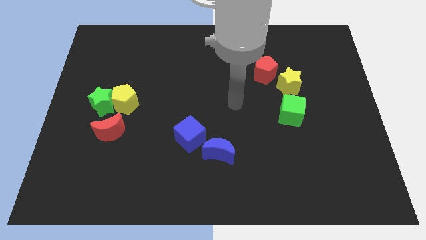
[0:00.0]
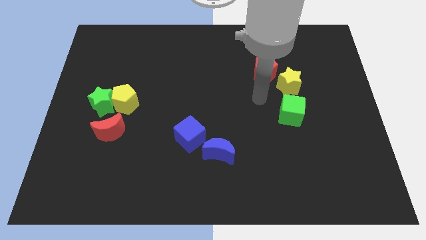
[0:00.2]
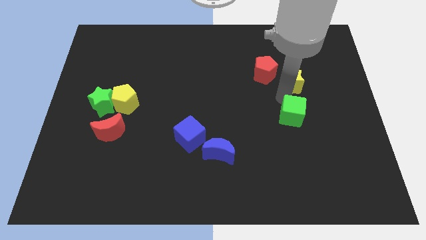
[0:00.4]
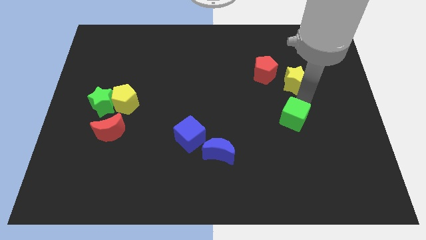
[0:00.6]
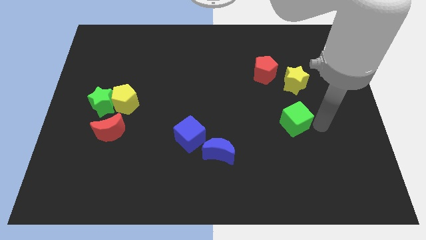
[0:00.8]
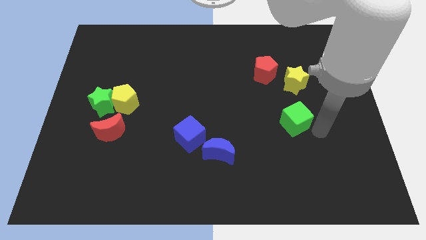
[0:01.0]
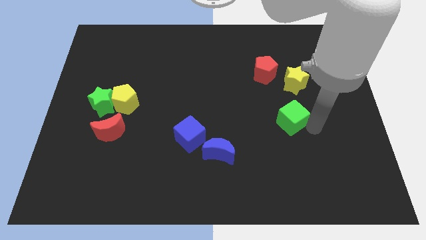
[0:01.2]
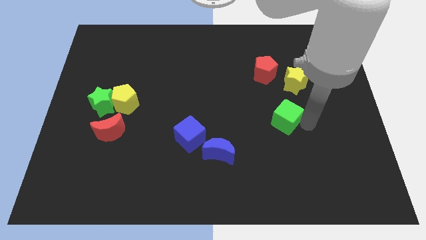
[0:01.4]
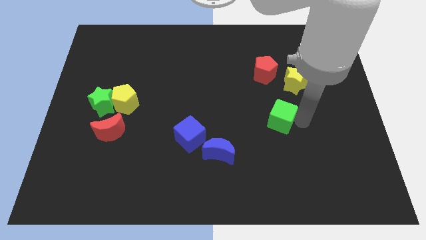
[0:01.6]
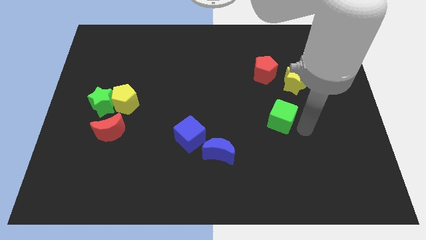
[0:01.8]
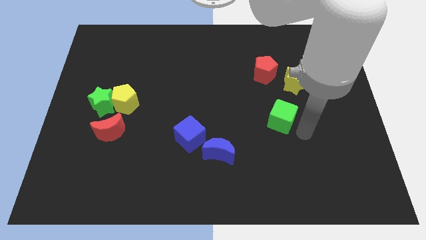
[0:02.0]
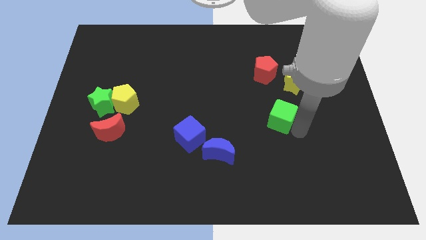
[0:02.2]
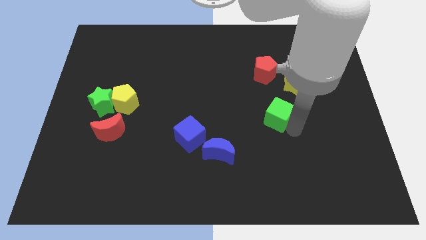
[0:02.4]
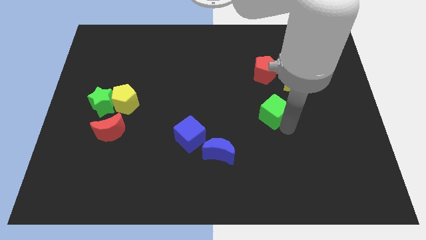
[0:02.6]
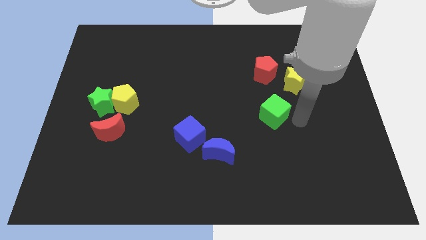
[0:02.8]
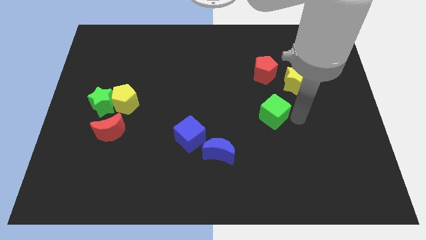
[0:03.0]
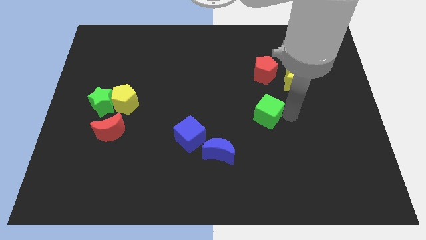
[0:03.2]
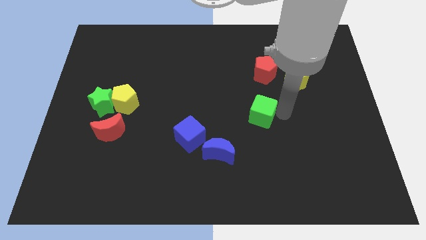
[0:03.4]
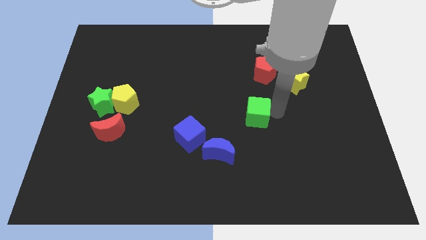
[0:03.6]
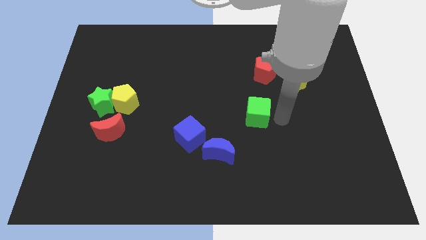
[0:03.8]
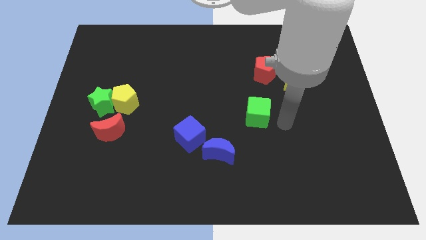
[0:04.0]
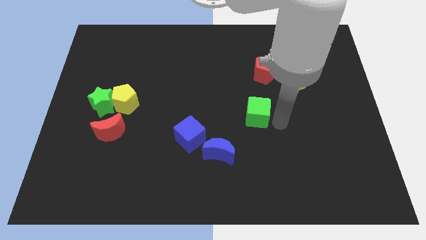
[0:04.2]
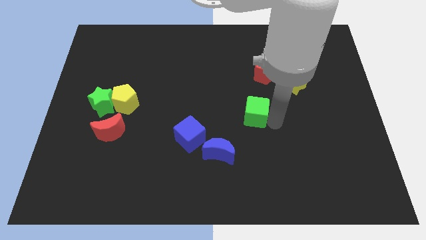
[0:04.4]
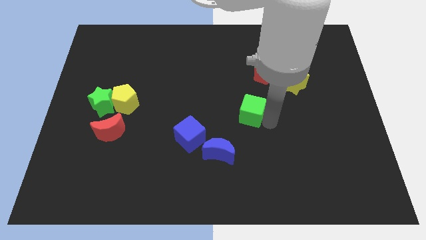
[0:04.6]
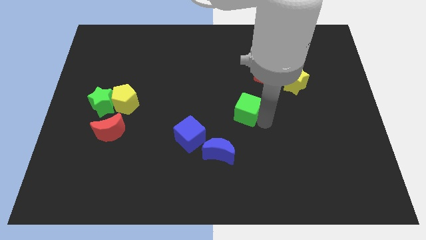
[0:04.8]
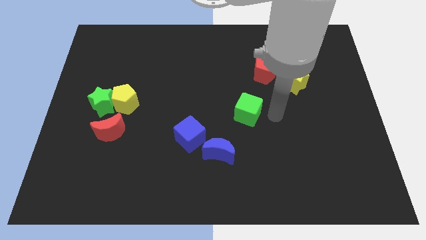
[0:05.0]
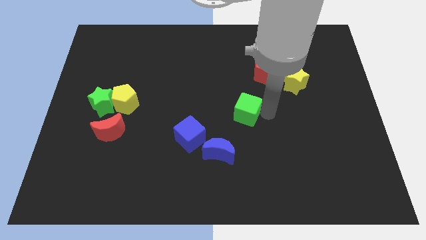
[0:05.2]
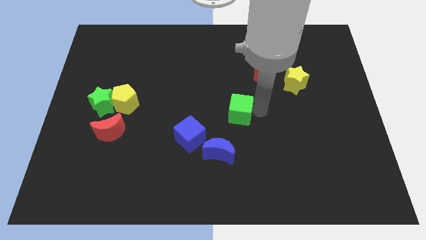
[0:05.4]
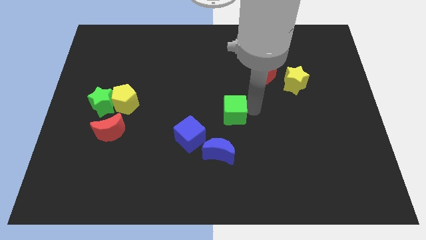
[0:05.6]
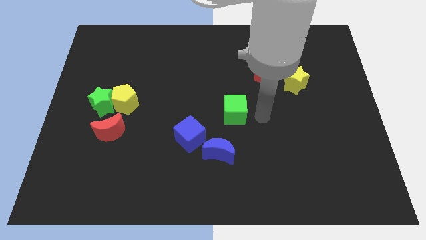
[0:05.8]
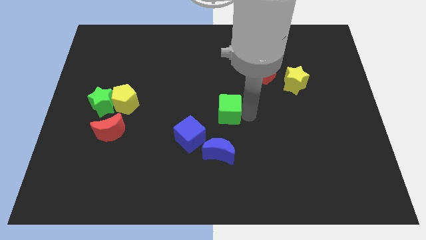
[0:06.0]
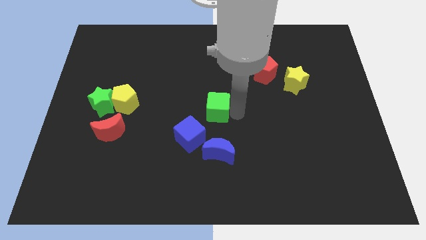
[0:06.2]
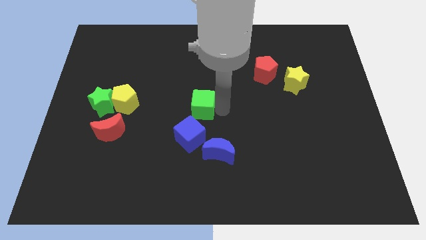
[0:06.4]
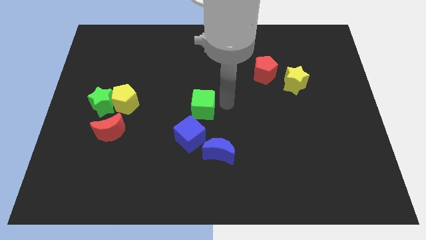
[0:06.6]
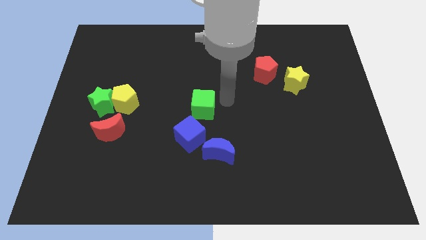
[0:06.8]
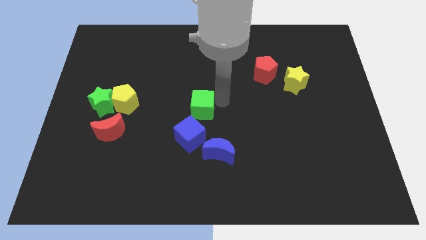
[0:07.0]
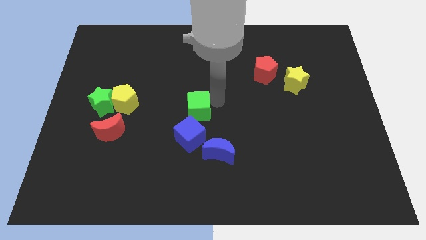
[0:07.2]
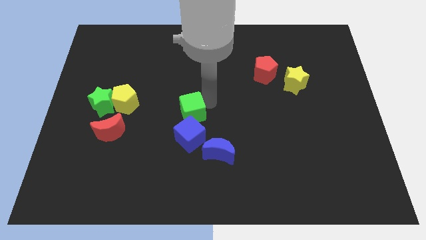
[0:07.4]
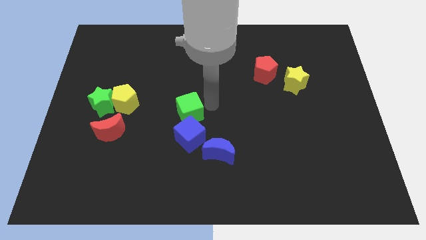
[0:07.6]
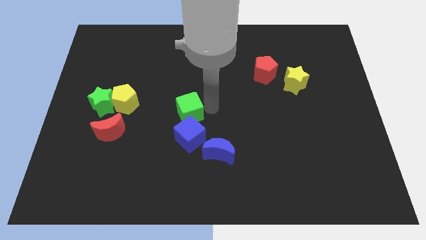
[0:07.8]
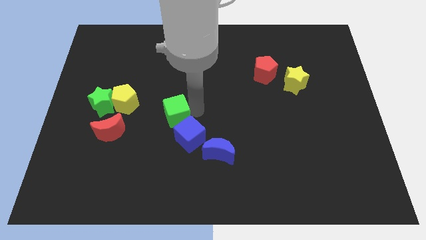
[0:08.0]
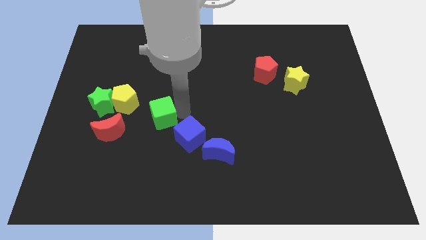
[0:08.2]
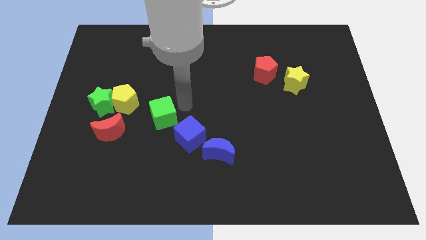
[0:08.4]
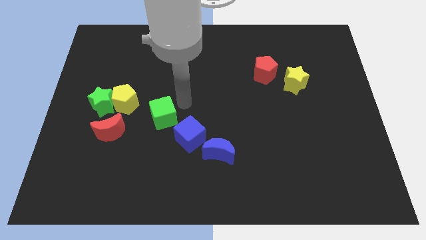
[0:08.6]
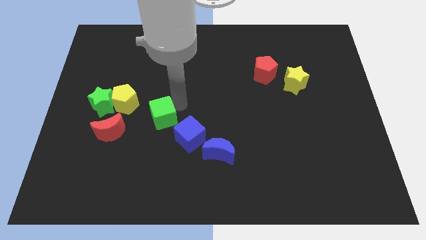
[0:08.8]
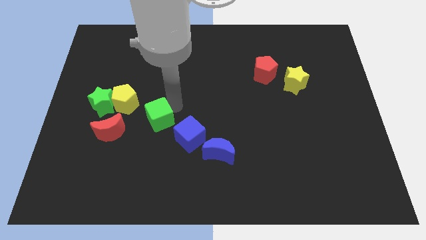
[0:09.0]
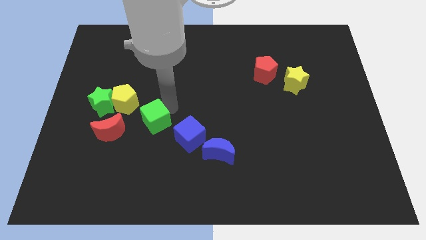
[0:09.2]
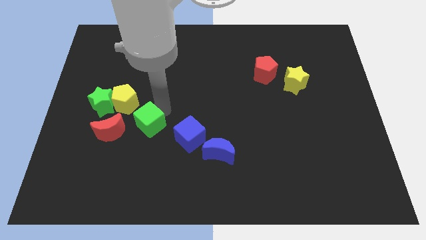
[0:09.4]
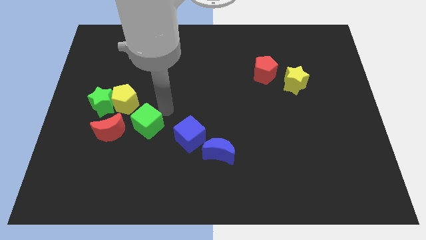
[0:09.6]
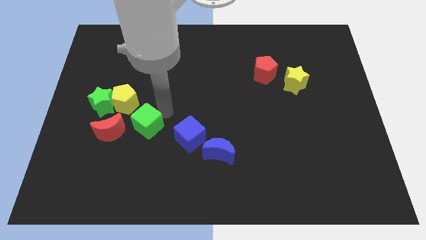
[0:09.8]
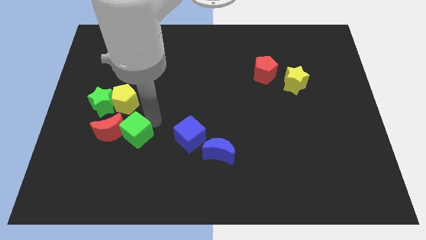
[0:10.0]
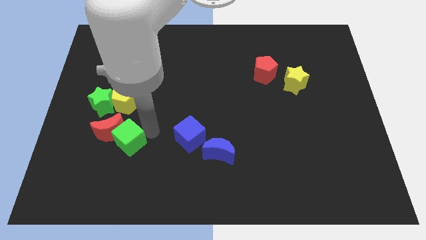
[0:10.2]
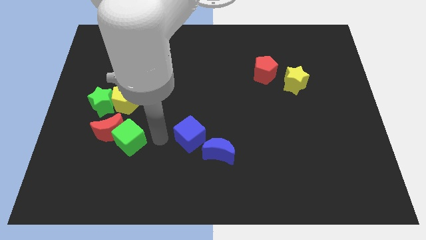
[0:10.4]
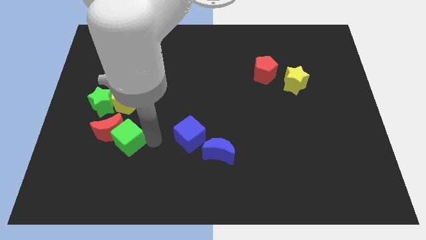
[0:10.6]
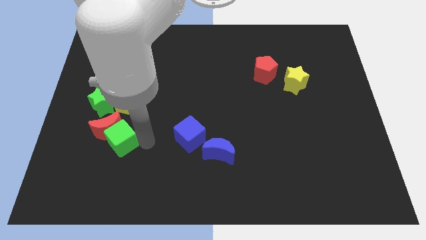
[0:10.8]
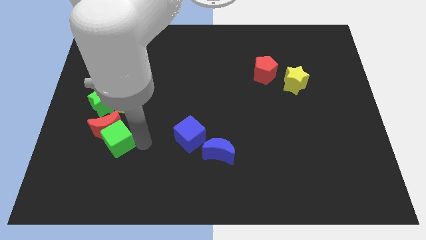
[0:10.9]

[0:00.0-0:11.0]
move the green cube below the green star

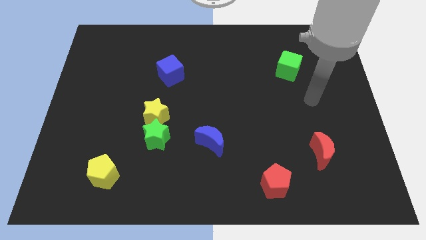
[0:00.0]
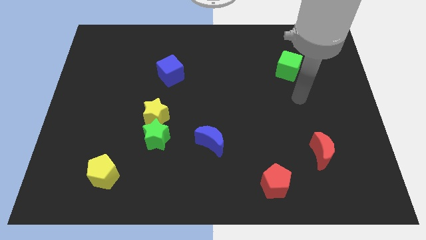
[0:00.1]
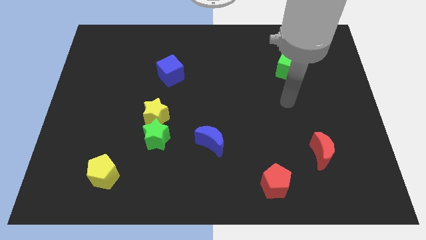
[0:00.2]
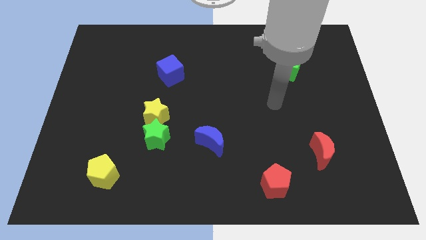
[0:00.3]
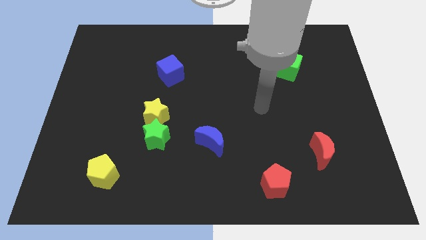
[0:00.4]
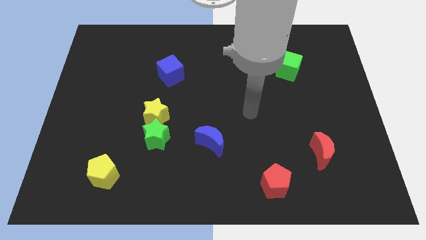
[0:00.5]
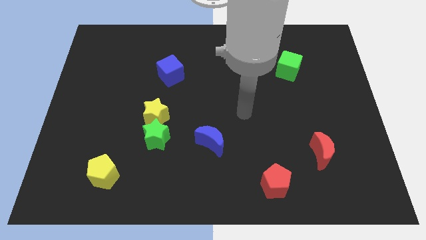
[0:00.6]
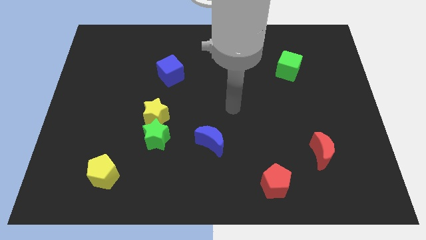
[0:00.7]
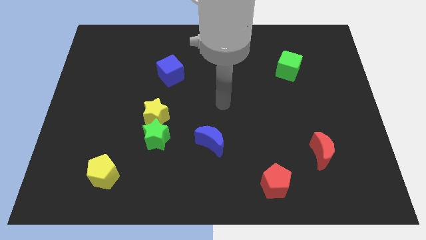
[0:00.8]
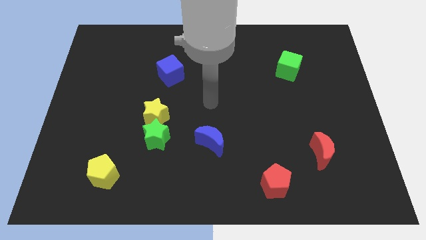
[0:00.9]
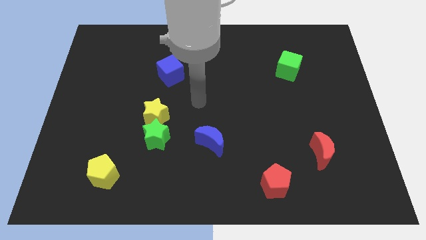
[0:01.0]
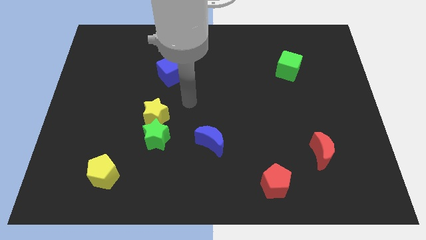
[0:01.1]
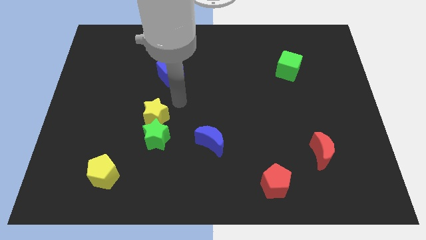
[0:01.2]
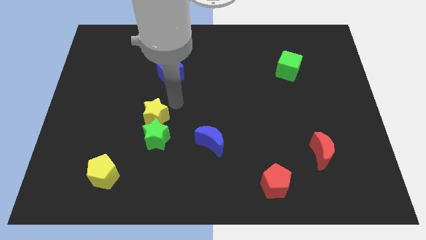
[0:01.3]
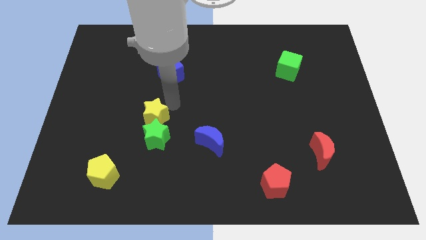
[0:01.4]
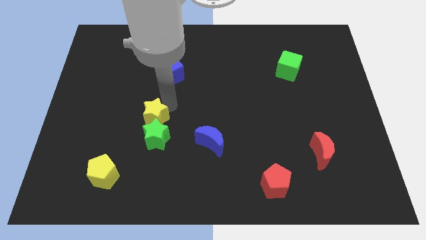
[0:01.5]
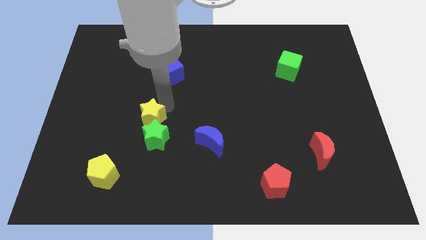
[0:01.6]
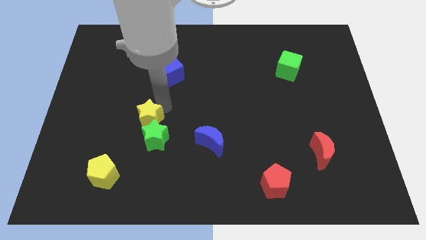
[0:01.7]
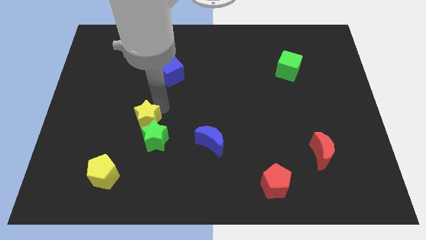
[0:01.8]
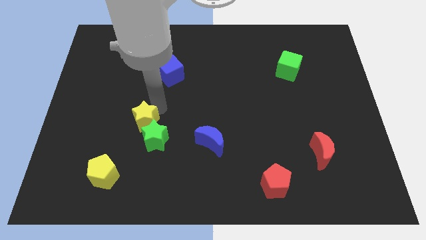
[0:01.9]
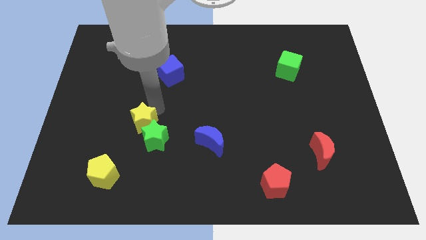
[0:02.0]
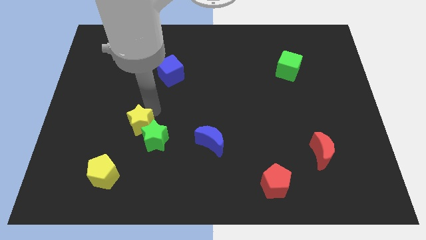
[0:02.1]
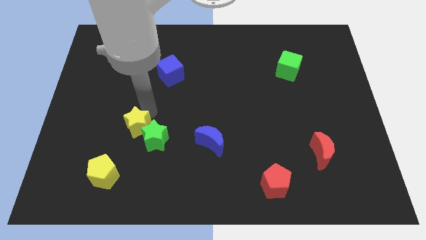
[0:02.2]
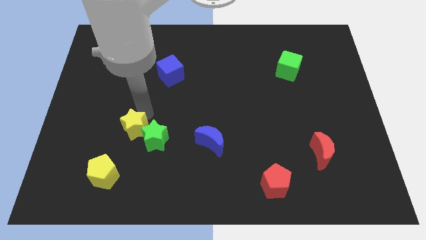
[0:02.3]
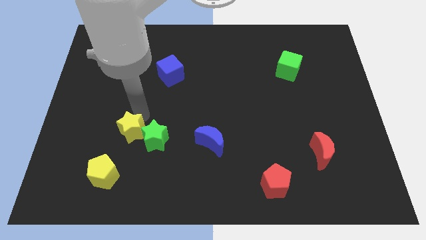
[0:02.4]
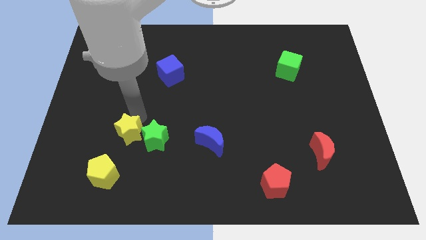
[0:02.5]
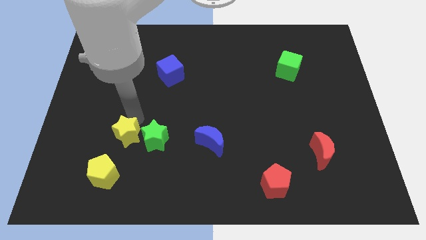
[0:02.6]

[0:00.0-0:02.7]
push the yellow star diagonally down and to the left of the green star

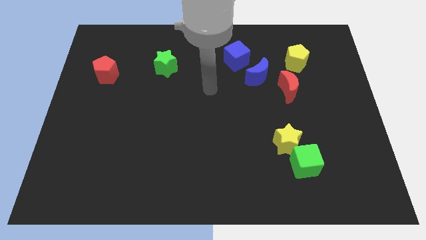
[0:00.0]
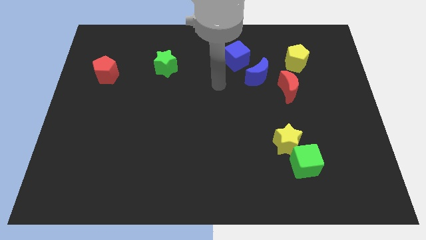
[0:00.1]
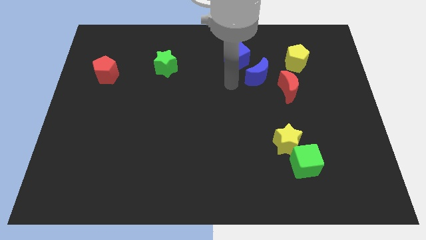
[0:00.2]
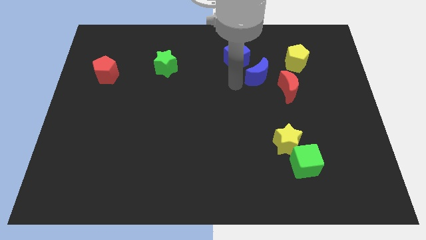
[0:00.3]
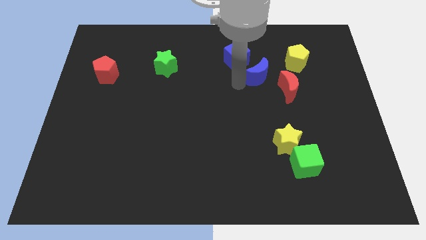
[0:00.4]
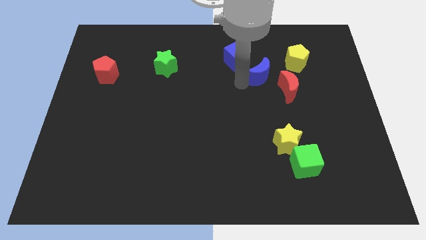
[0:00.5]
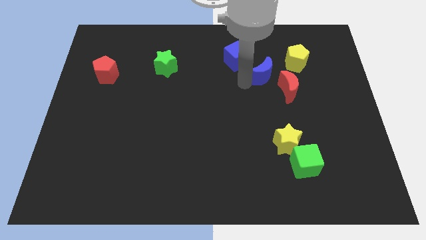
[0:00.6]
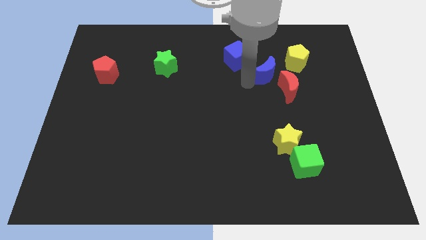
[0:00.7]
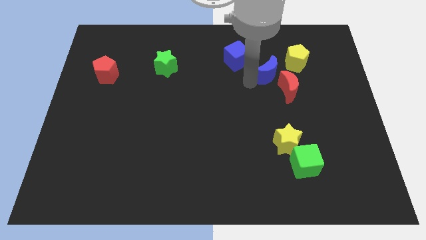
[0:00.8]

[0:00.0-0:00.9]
put the blue moon above the red moon
